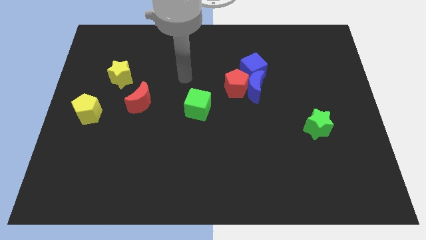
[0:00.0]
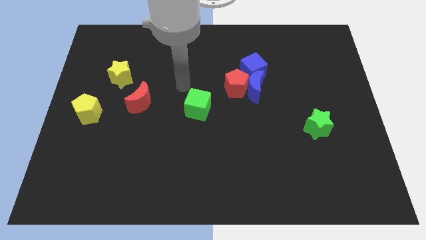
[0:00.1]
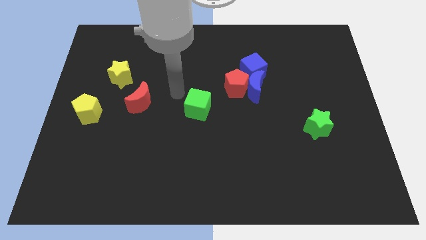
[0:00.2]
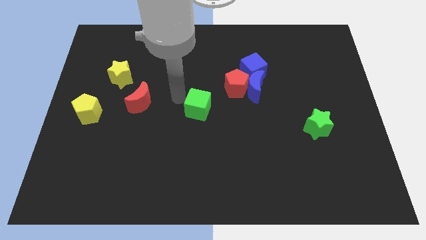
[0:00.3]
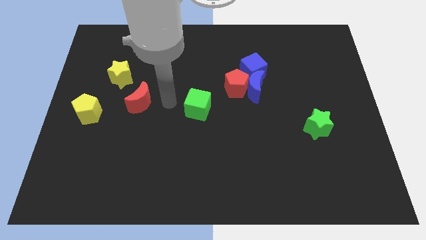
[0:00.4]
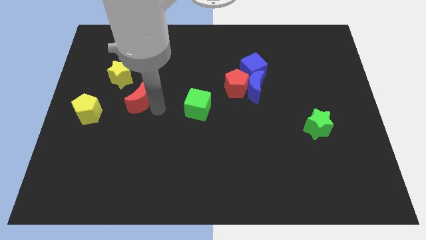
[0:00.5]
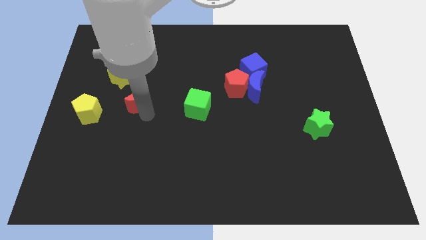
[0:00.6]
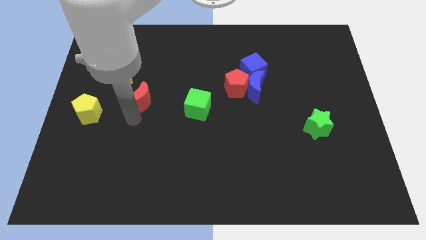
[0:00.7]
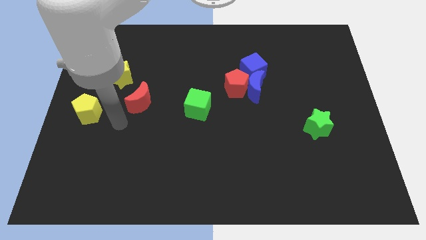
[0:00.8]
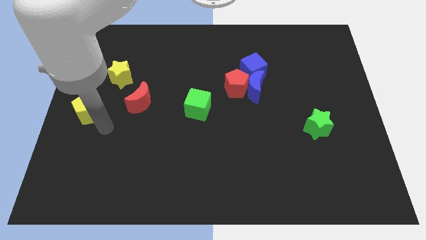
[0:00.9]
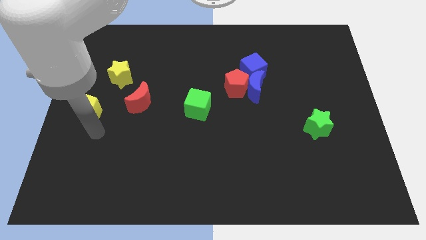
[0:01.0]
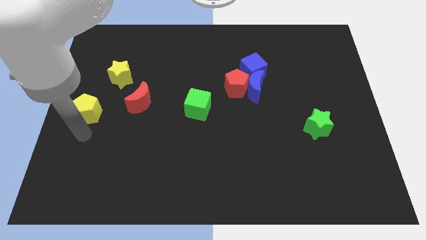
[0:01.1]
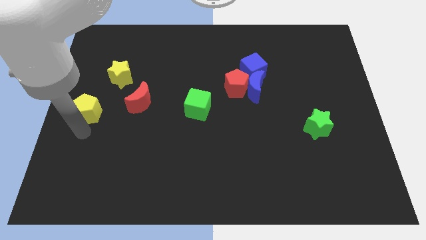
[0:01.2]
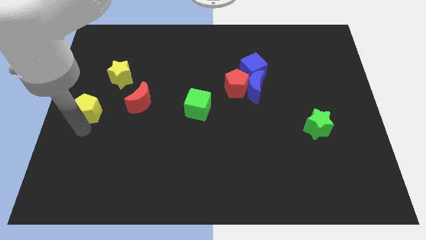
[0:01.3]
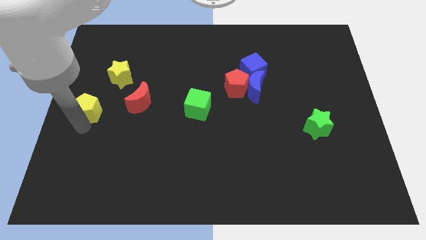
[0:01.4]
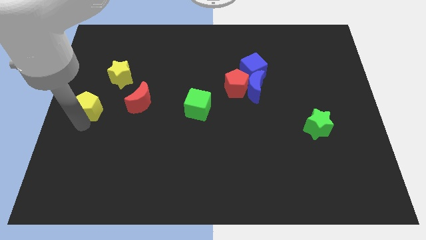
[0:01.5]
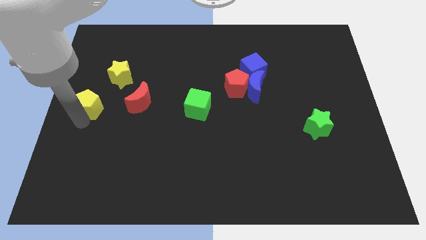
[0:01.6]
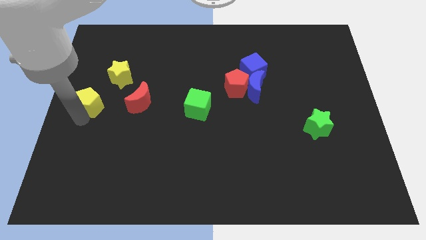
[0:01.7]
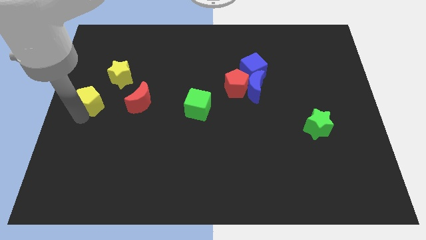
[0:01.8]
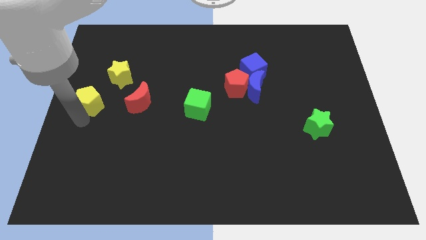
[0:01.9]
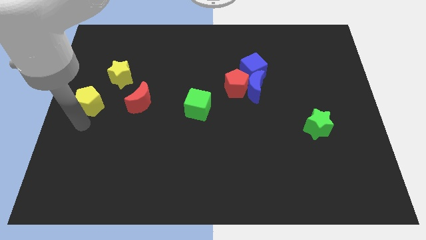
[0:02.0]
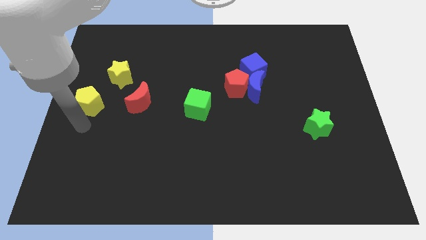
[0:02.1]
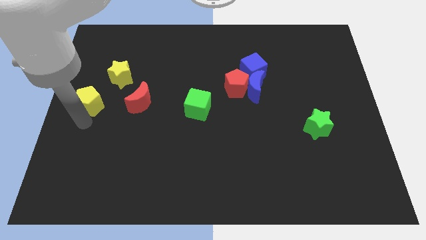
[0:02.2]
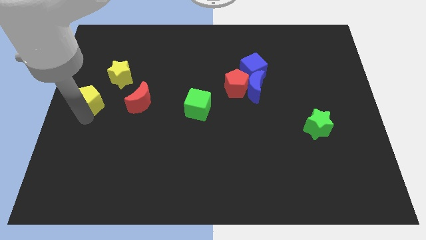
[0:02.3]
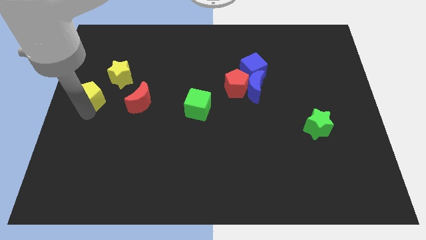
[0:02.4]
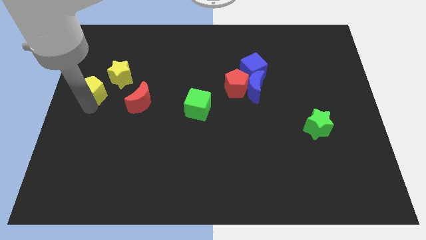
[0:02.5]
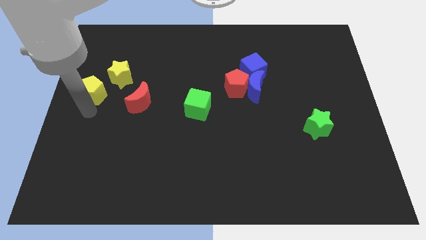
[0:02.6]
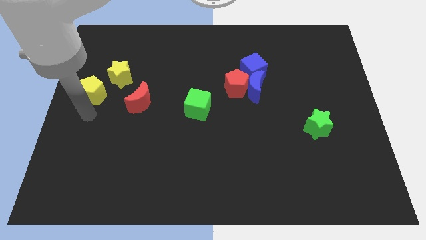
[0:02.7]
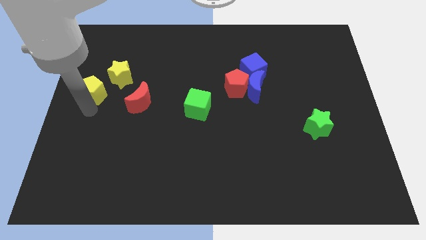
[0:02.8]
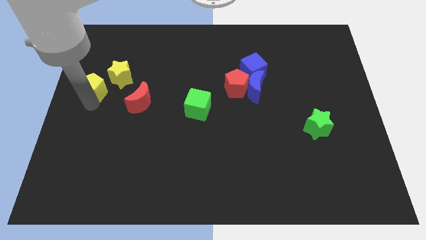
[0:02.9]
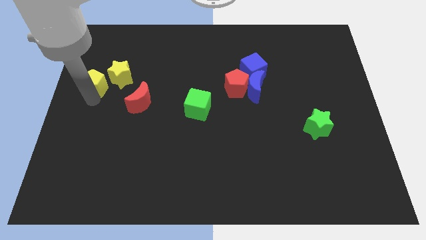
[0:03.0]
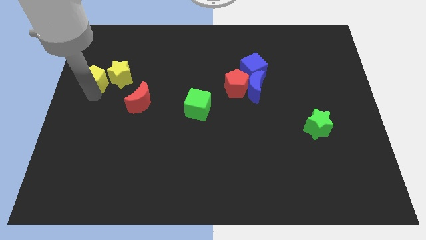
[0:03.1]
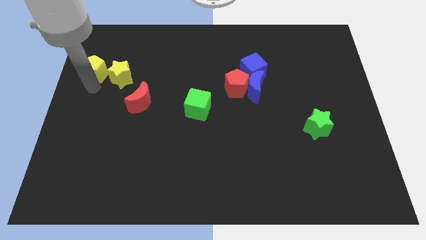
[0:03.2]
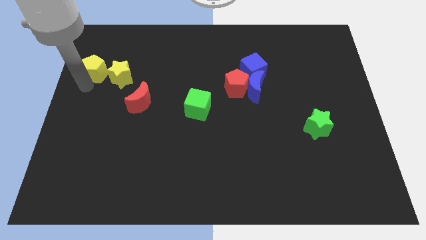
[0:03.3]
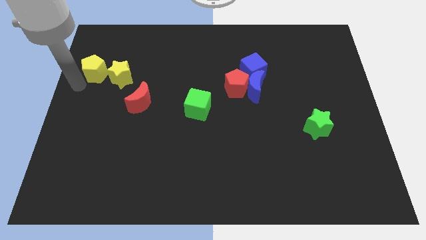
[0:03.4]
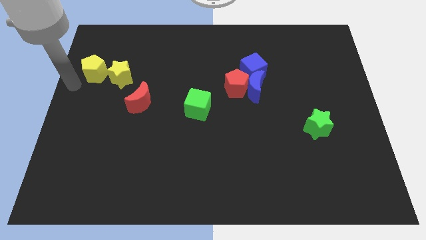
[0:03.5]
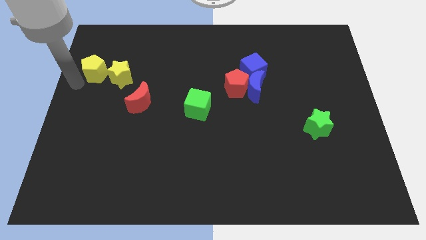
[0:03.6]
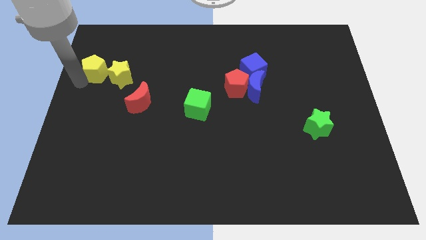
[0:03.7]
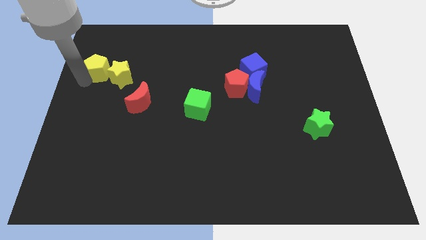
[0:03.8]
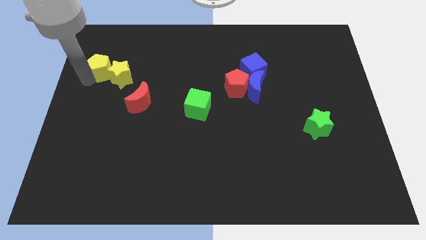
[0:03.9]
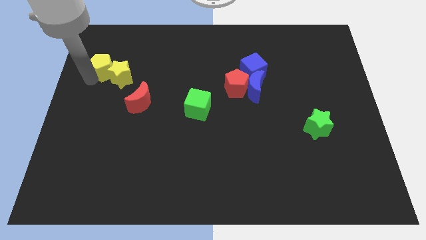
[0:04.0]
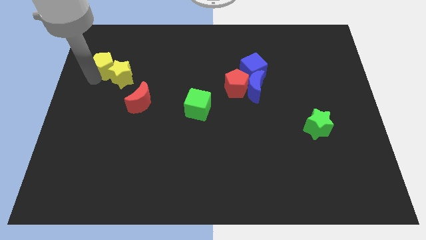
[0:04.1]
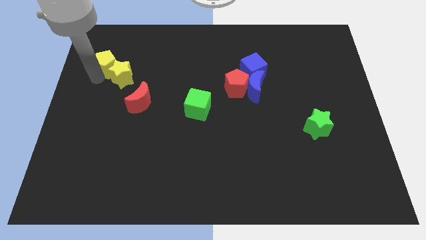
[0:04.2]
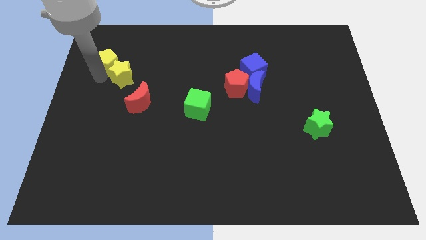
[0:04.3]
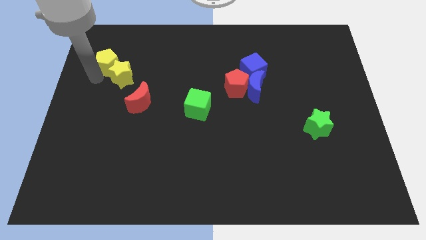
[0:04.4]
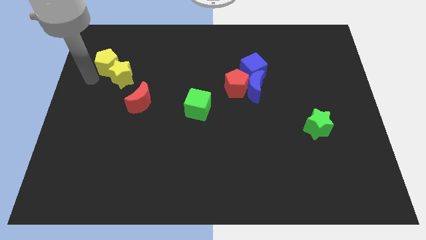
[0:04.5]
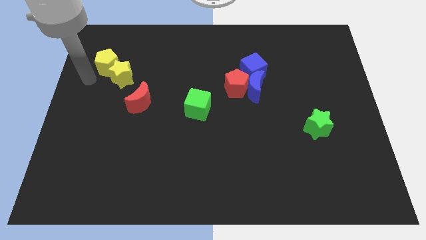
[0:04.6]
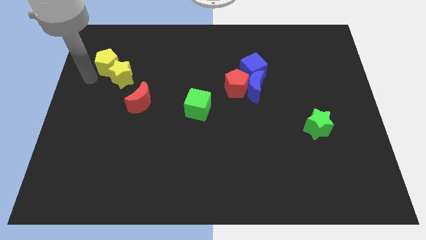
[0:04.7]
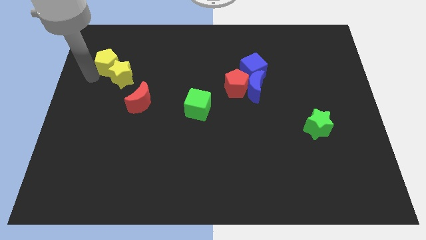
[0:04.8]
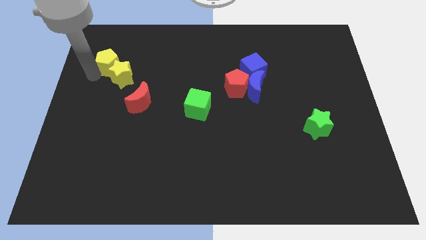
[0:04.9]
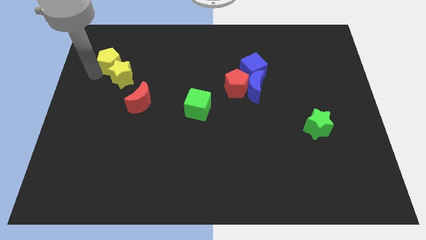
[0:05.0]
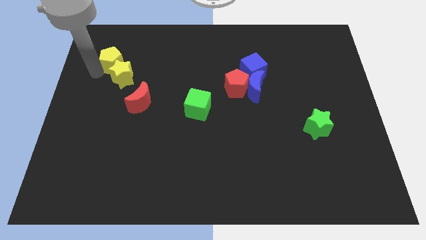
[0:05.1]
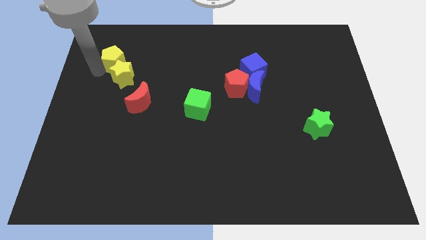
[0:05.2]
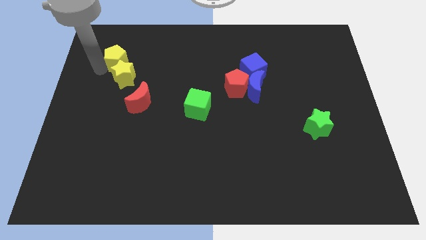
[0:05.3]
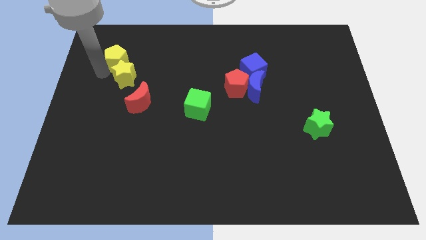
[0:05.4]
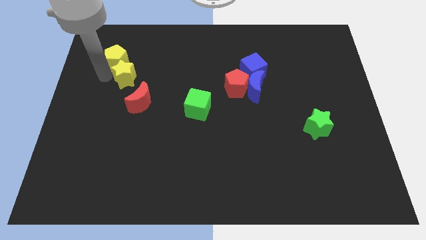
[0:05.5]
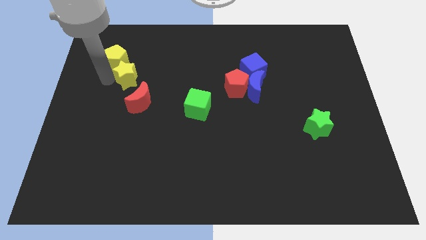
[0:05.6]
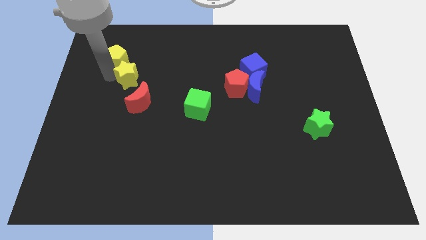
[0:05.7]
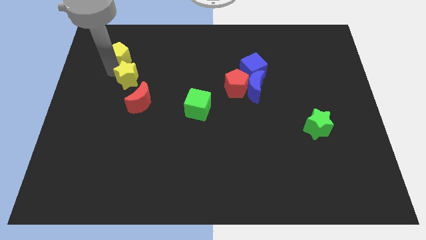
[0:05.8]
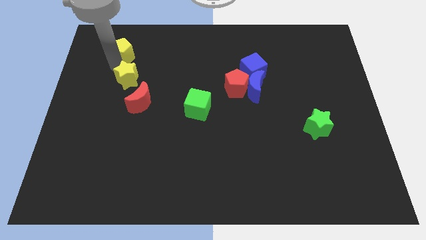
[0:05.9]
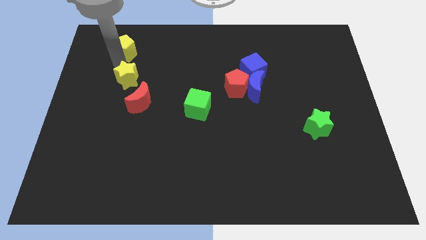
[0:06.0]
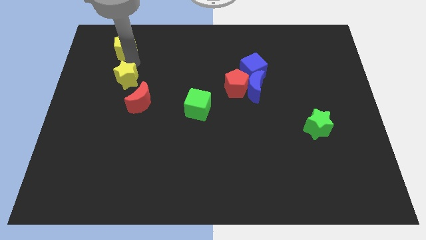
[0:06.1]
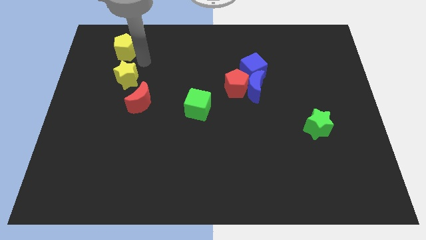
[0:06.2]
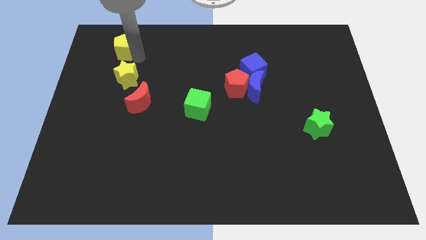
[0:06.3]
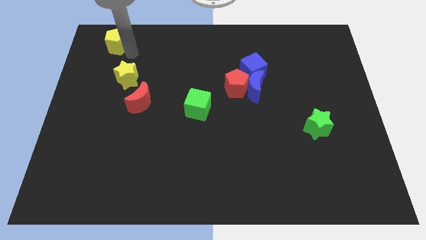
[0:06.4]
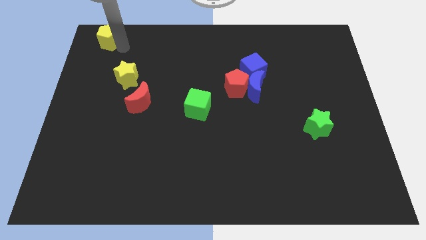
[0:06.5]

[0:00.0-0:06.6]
move the yellow pentagon to the upper left corner
